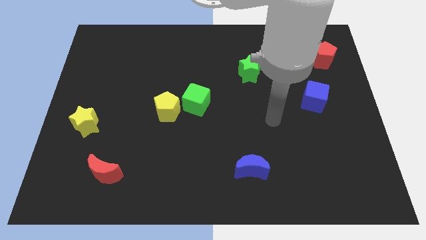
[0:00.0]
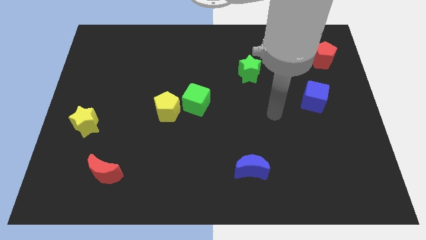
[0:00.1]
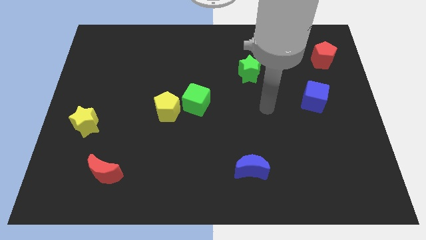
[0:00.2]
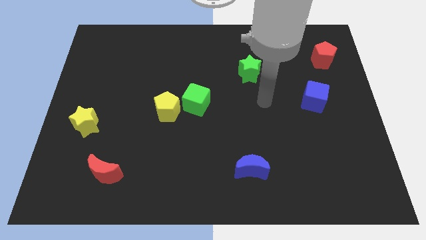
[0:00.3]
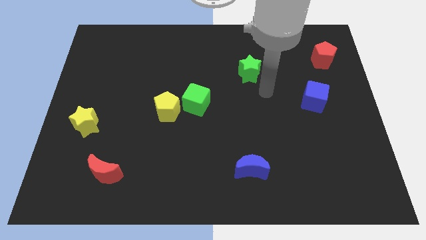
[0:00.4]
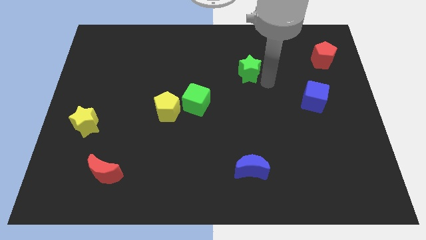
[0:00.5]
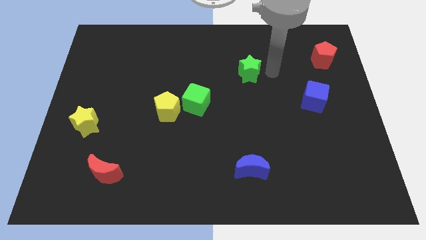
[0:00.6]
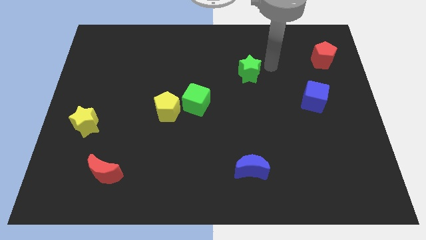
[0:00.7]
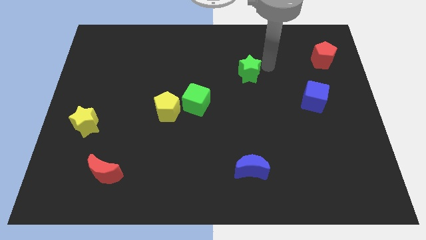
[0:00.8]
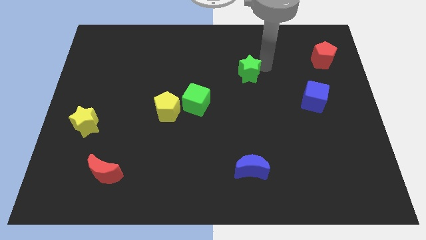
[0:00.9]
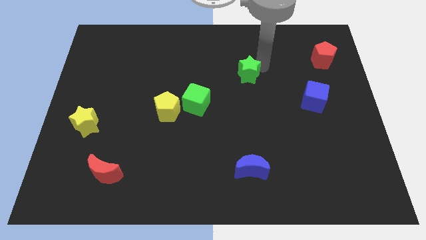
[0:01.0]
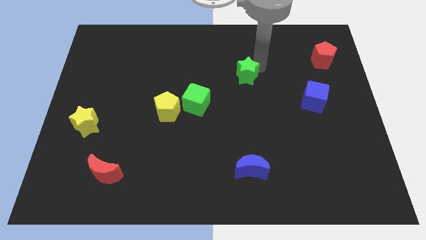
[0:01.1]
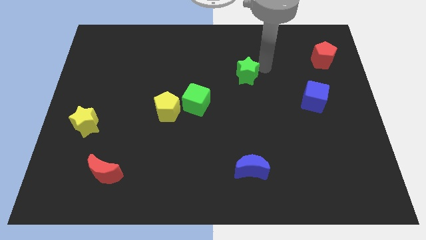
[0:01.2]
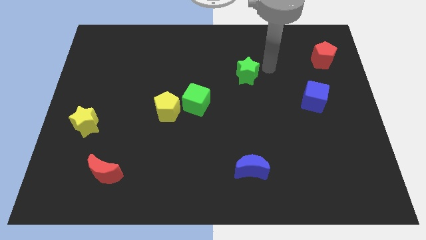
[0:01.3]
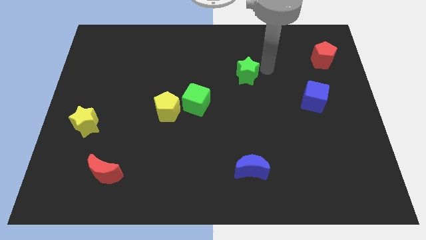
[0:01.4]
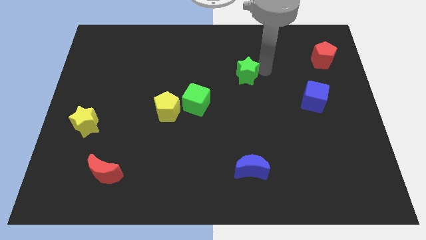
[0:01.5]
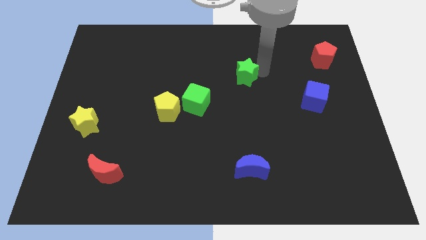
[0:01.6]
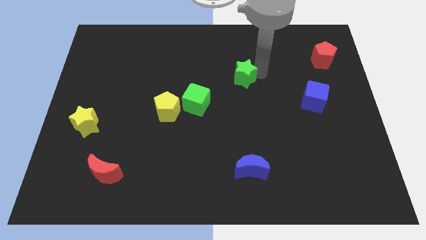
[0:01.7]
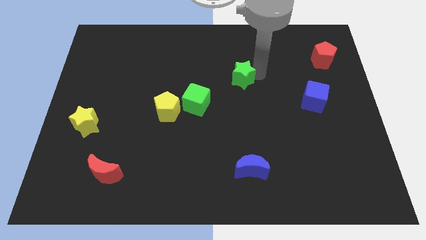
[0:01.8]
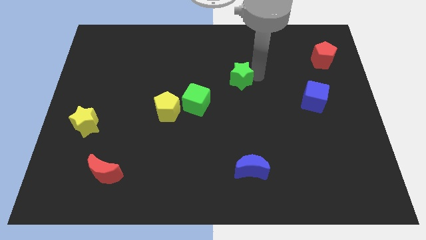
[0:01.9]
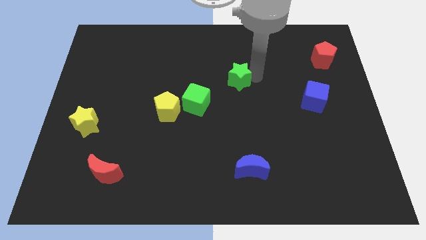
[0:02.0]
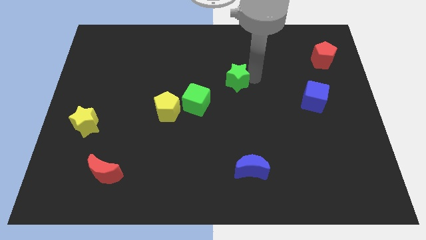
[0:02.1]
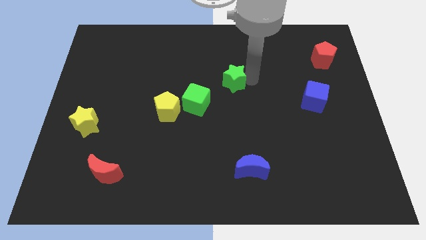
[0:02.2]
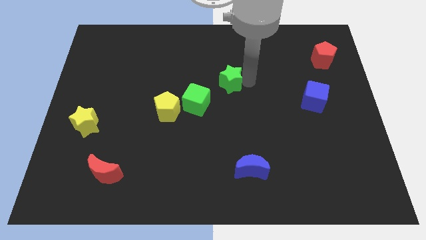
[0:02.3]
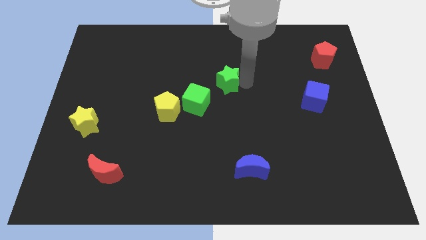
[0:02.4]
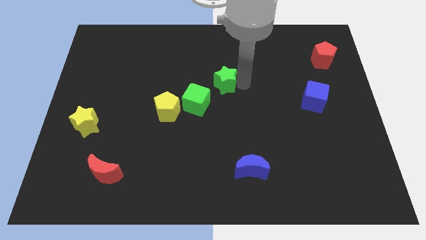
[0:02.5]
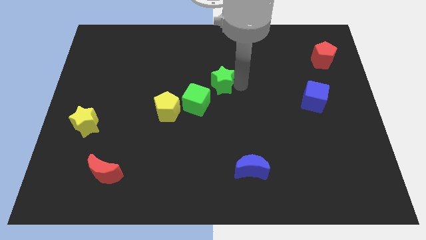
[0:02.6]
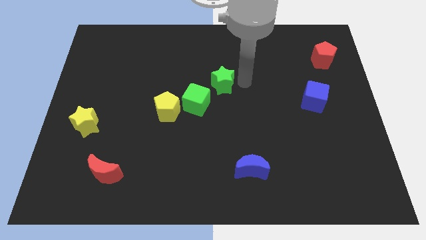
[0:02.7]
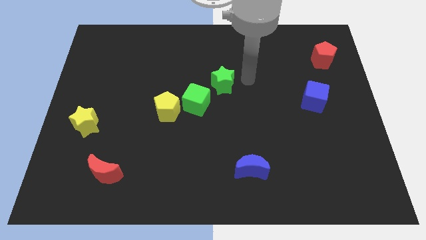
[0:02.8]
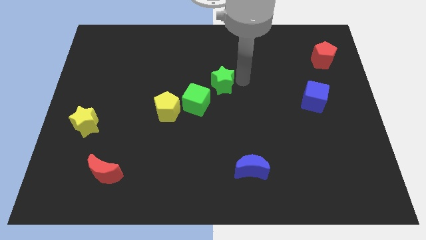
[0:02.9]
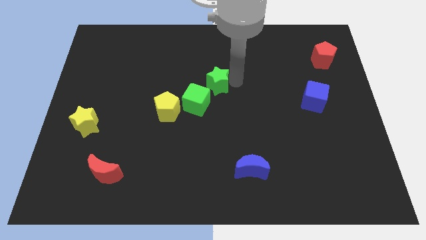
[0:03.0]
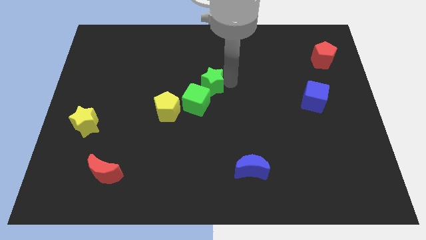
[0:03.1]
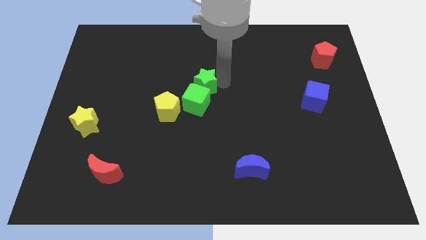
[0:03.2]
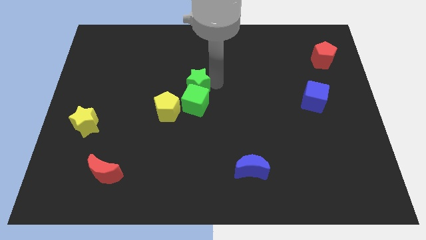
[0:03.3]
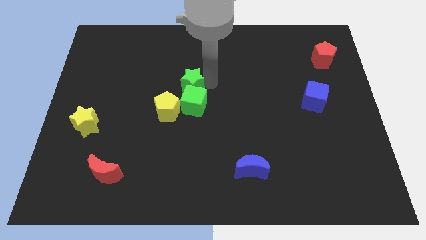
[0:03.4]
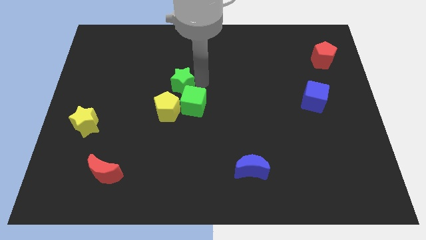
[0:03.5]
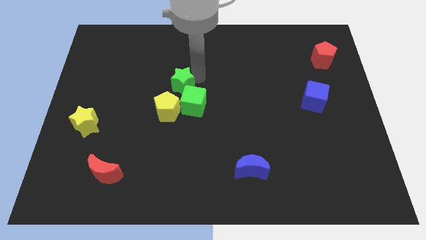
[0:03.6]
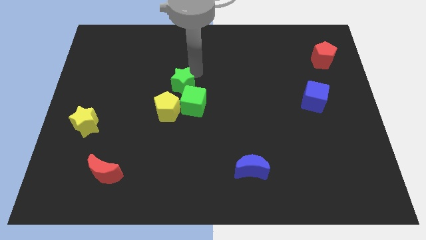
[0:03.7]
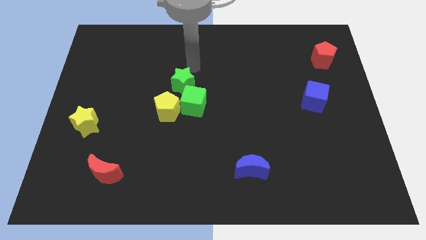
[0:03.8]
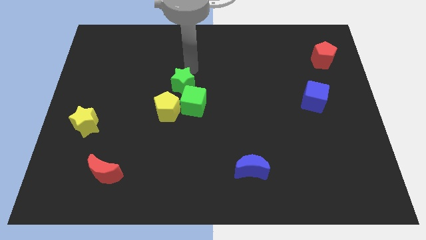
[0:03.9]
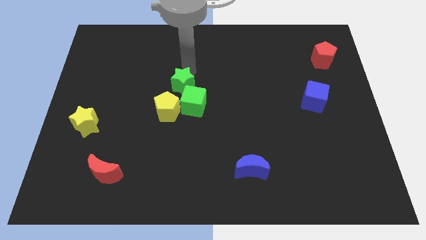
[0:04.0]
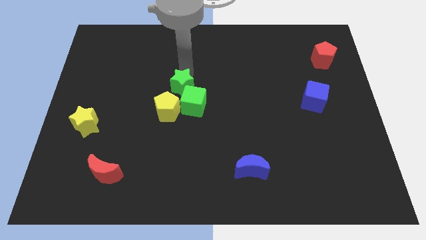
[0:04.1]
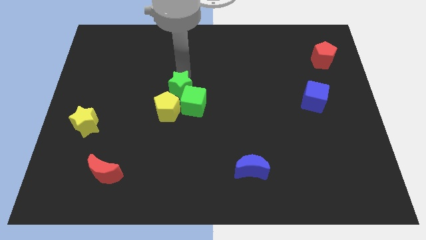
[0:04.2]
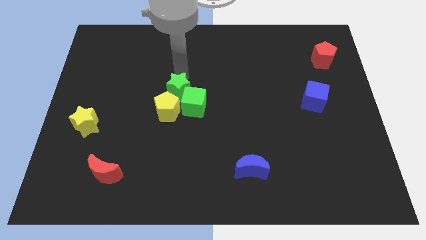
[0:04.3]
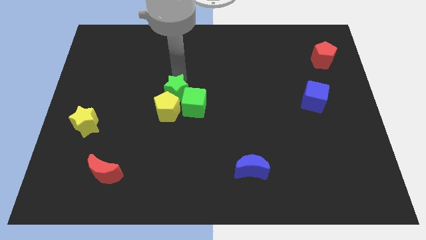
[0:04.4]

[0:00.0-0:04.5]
put the green star to the yellow pentagon

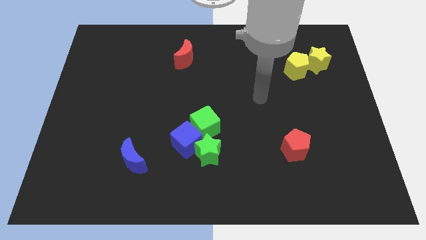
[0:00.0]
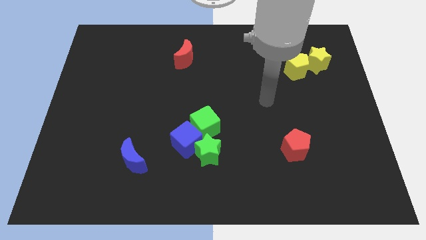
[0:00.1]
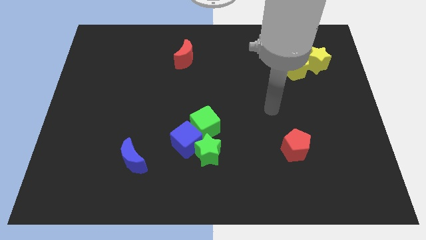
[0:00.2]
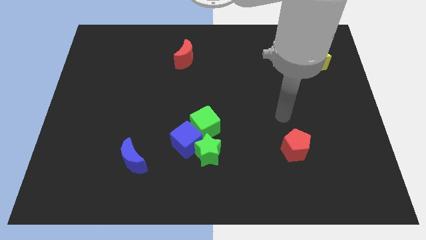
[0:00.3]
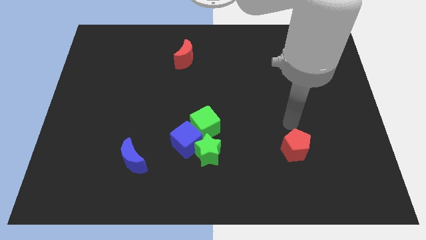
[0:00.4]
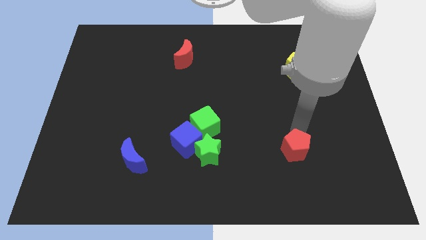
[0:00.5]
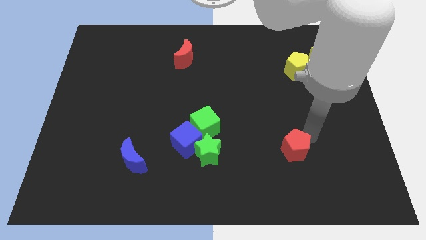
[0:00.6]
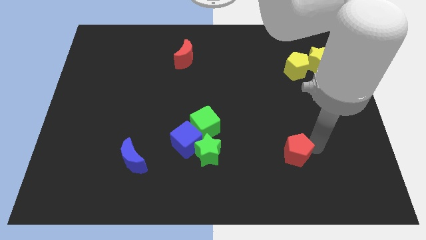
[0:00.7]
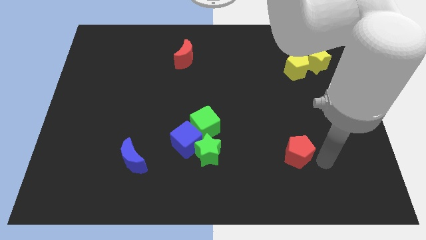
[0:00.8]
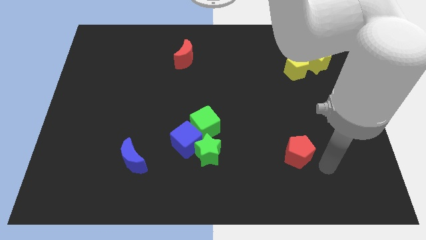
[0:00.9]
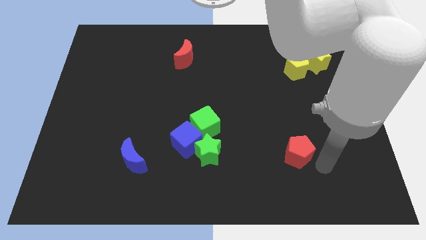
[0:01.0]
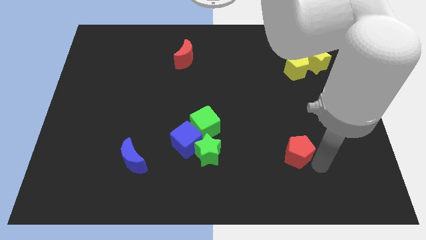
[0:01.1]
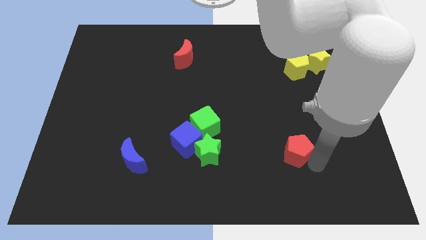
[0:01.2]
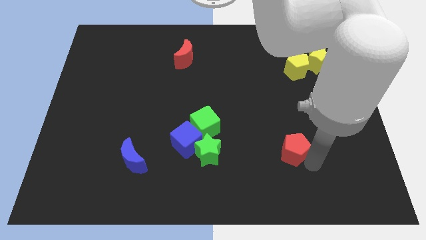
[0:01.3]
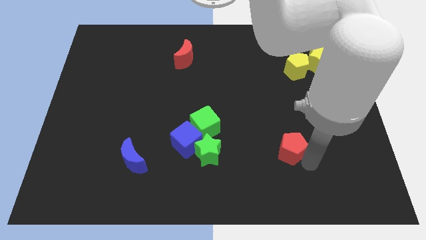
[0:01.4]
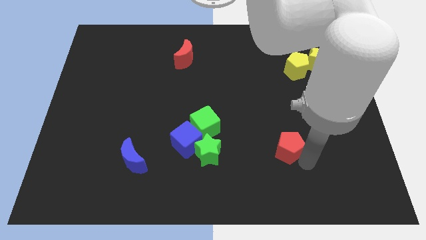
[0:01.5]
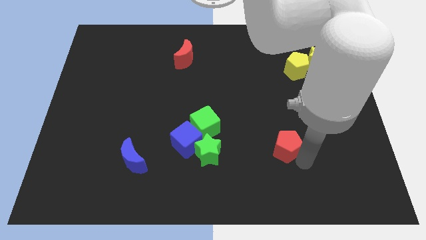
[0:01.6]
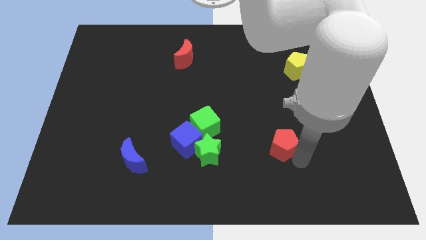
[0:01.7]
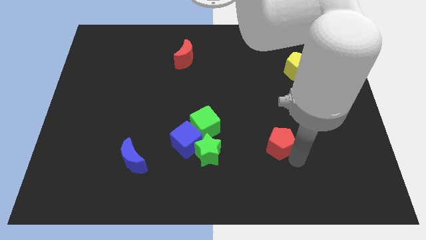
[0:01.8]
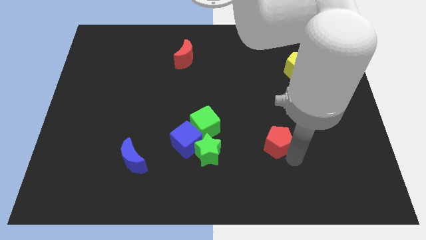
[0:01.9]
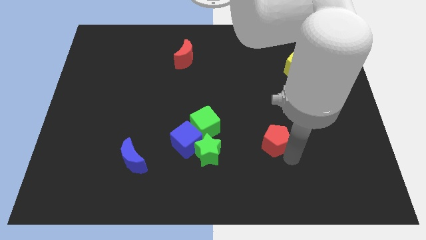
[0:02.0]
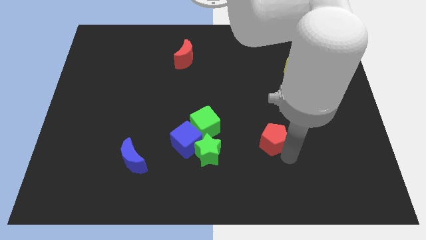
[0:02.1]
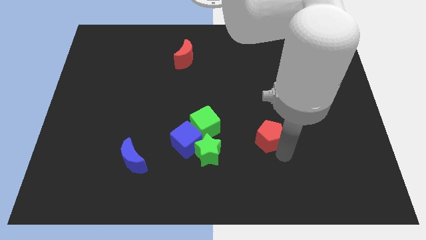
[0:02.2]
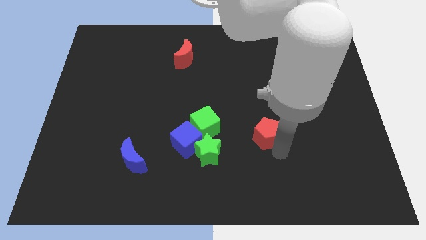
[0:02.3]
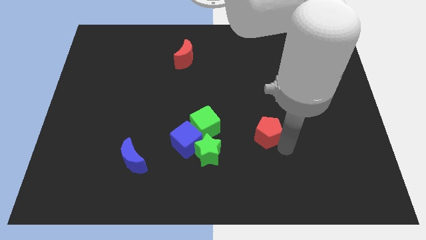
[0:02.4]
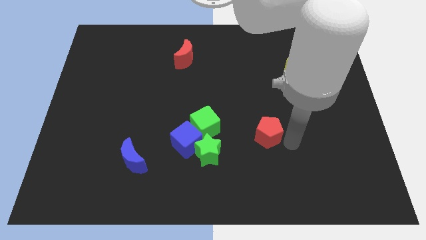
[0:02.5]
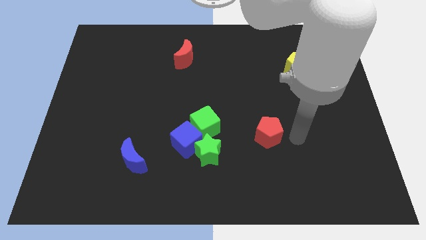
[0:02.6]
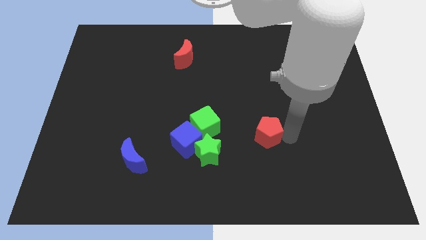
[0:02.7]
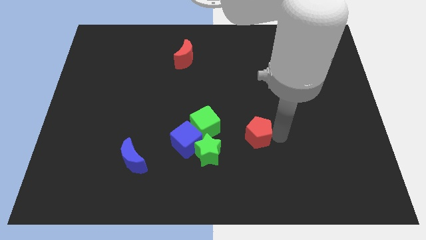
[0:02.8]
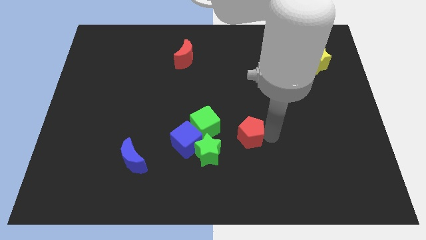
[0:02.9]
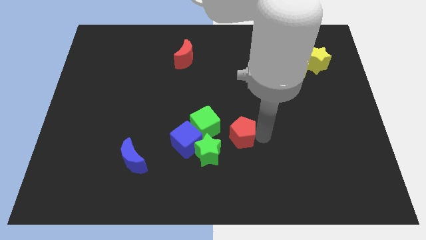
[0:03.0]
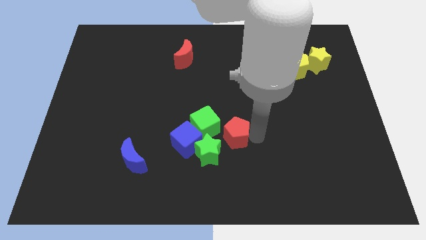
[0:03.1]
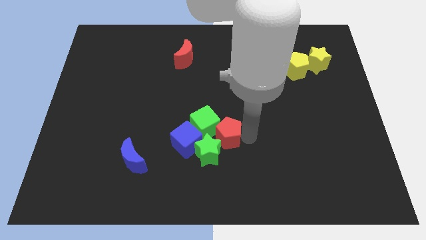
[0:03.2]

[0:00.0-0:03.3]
push the red pentagon close to the green cube
